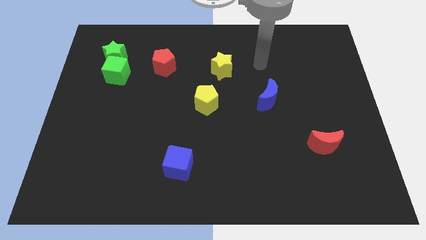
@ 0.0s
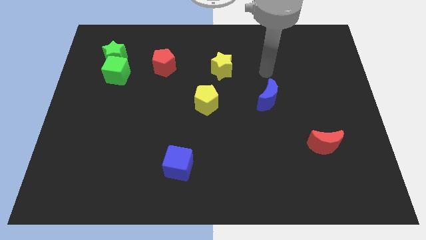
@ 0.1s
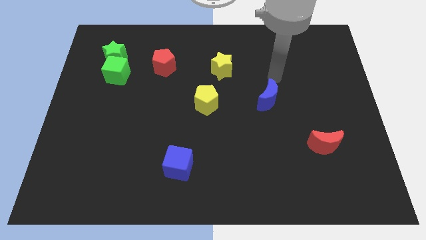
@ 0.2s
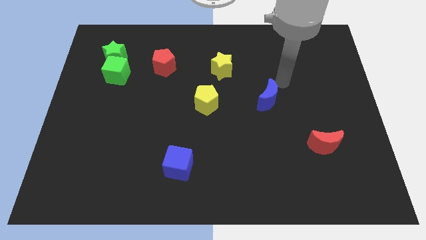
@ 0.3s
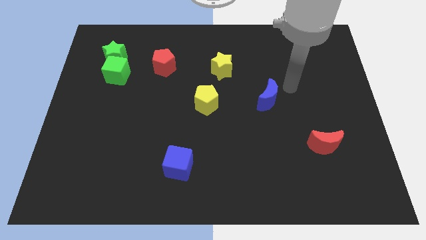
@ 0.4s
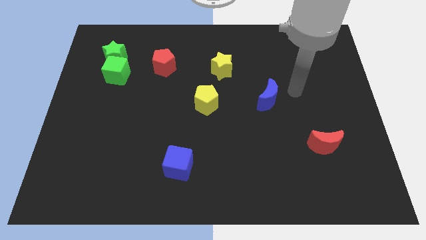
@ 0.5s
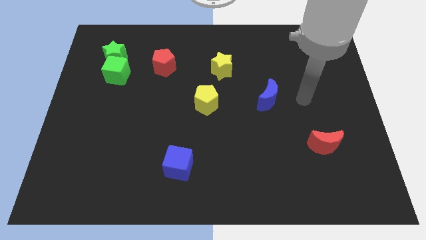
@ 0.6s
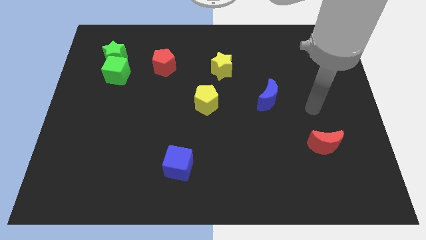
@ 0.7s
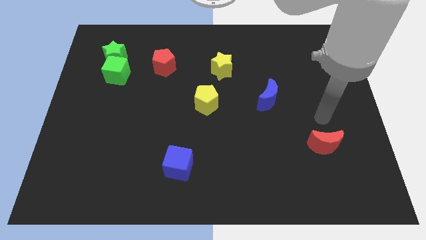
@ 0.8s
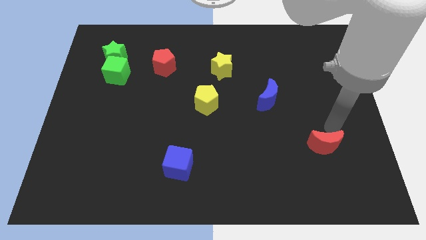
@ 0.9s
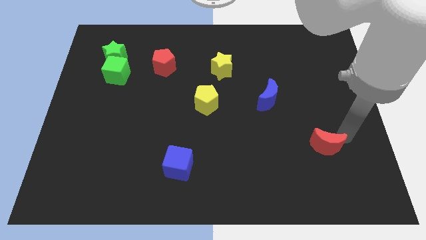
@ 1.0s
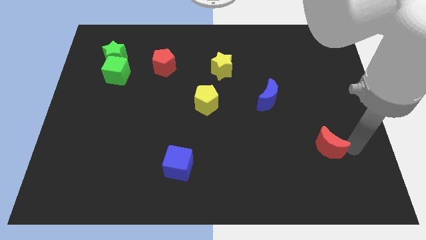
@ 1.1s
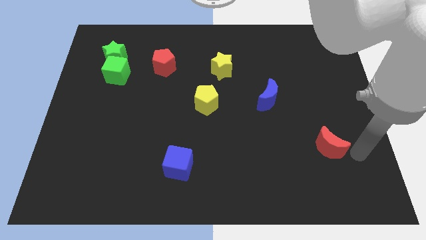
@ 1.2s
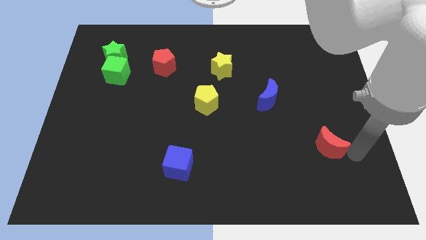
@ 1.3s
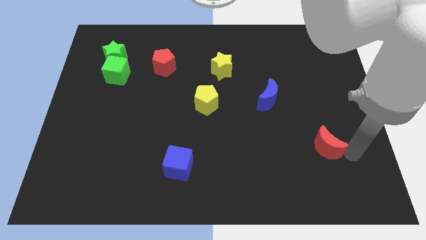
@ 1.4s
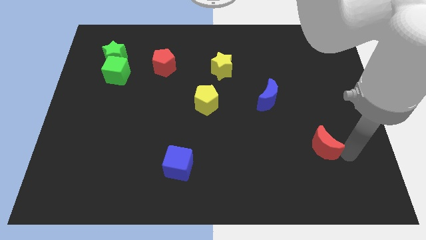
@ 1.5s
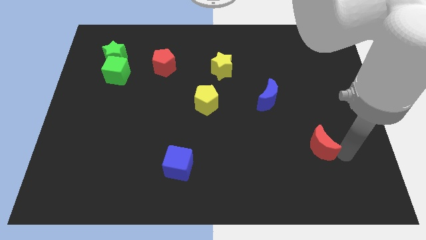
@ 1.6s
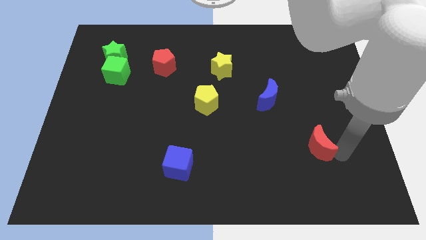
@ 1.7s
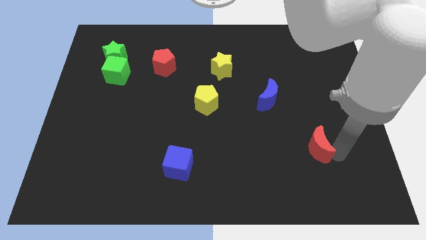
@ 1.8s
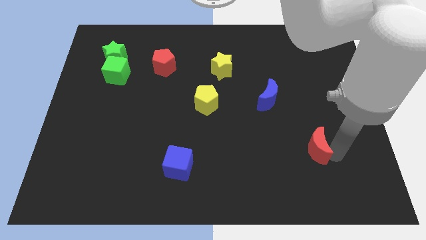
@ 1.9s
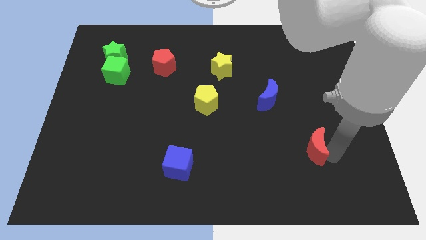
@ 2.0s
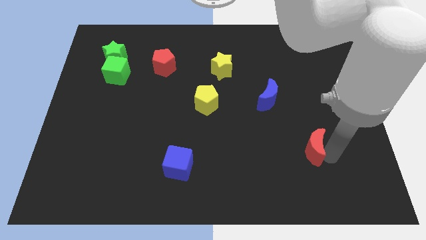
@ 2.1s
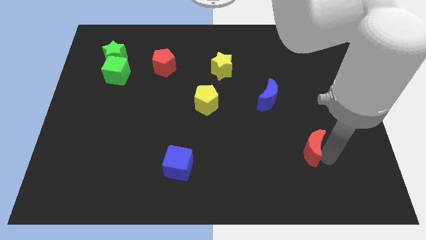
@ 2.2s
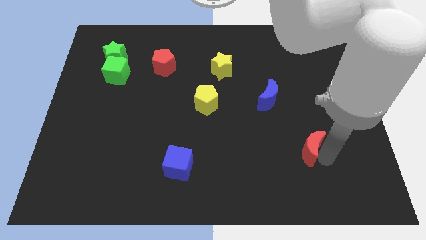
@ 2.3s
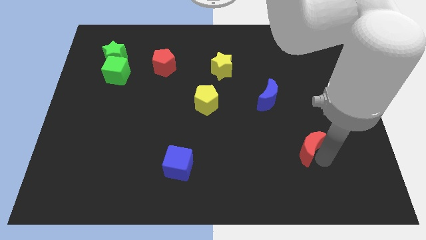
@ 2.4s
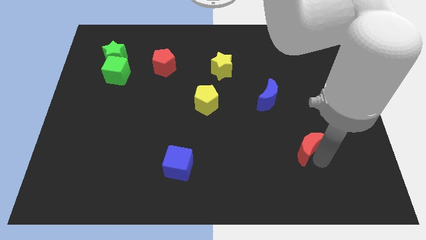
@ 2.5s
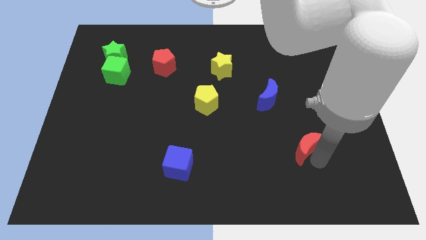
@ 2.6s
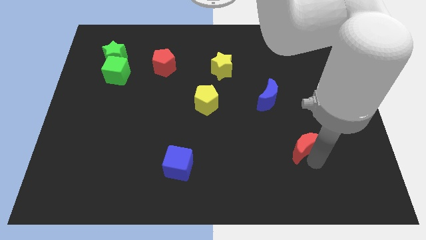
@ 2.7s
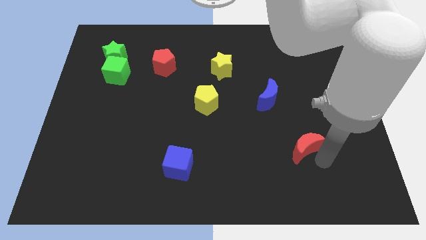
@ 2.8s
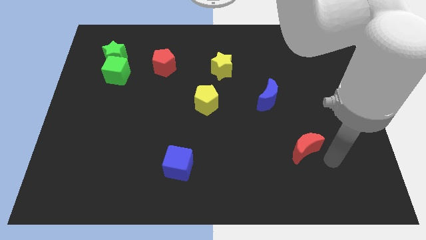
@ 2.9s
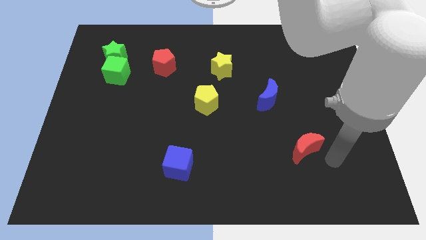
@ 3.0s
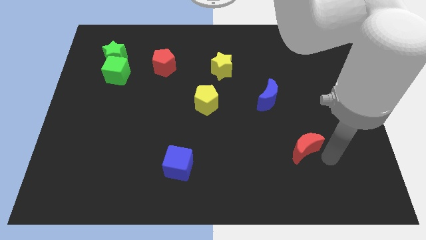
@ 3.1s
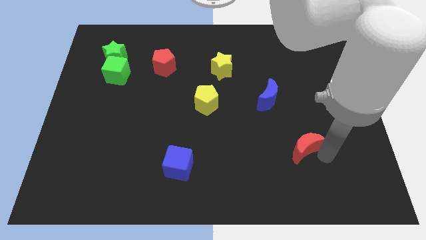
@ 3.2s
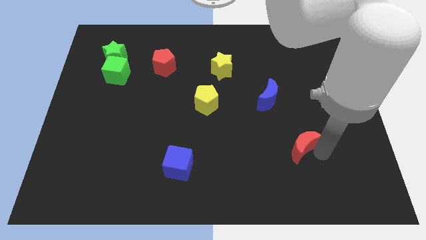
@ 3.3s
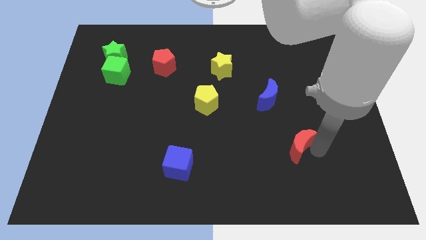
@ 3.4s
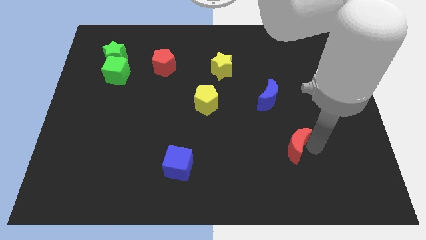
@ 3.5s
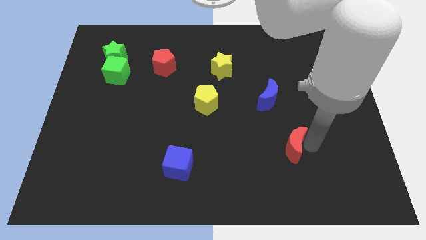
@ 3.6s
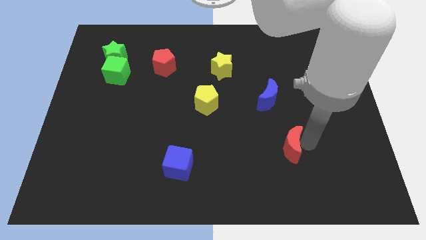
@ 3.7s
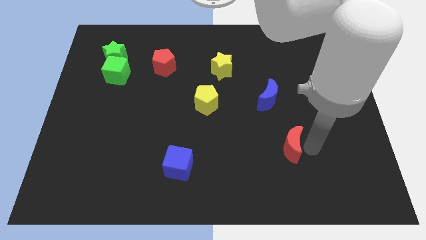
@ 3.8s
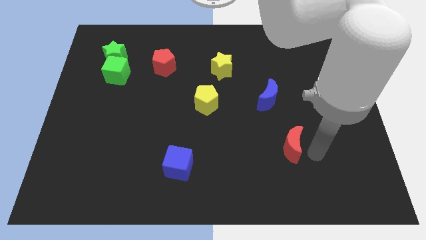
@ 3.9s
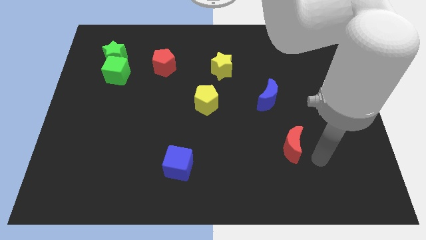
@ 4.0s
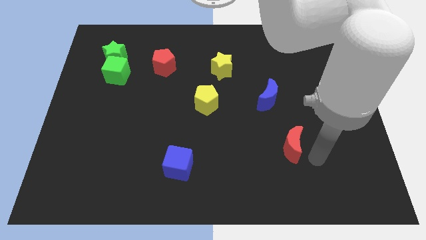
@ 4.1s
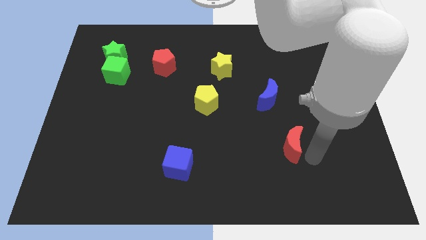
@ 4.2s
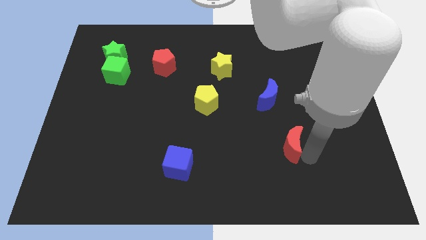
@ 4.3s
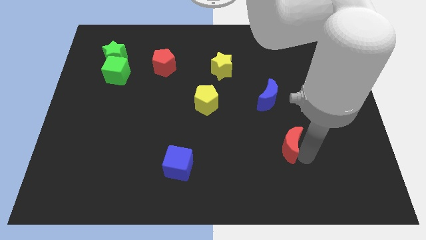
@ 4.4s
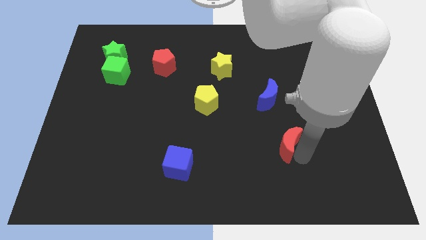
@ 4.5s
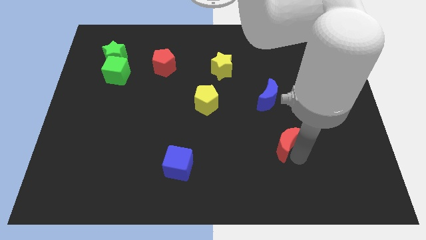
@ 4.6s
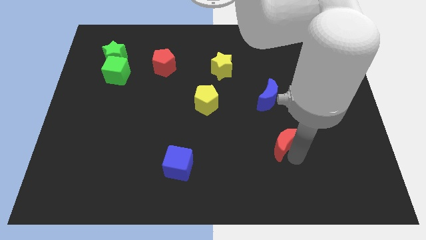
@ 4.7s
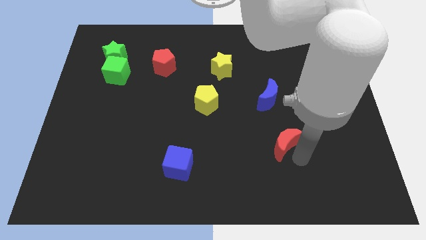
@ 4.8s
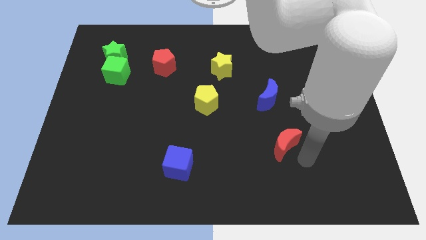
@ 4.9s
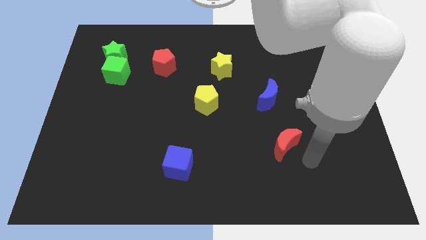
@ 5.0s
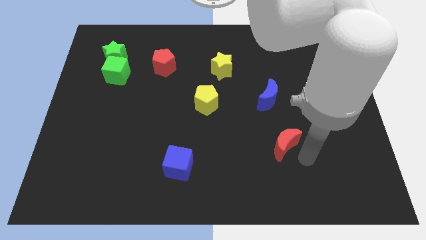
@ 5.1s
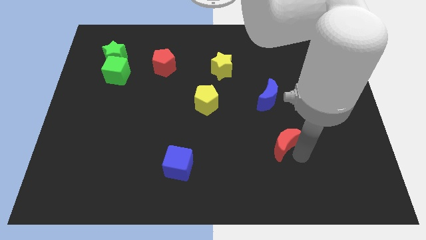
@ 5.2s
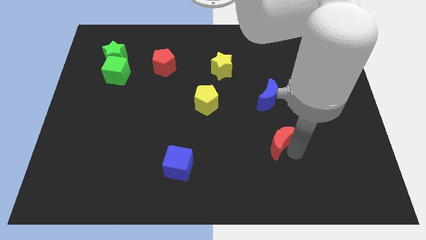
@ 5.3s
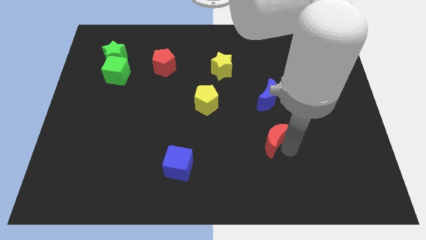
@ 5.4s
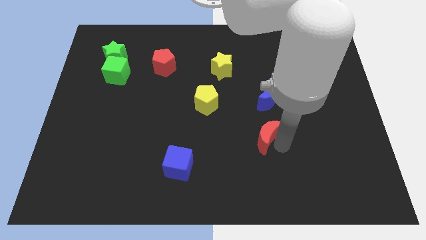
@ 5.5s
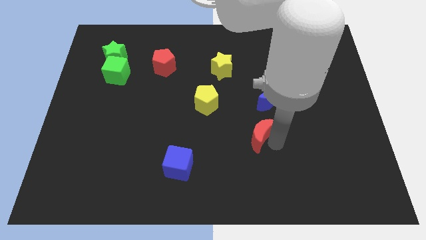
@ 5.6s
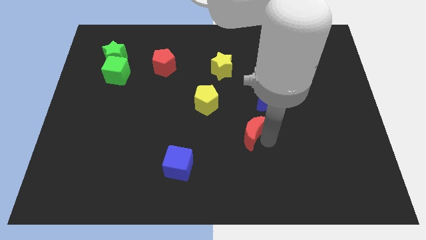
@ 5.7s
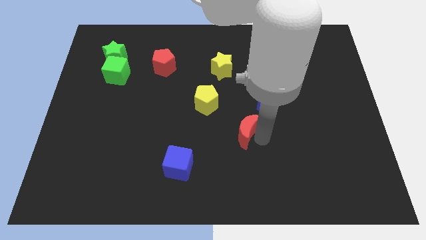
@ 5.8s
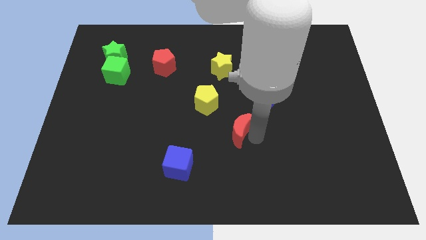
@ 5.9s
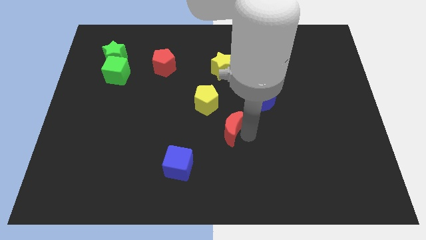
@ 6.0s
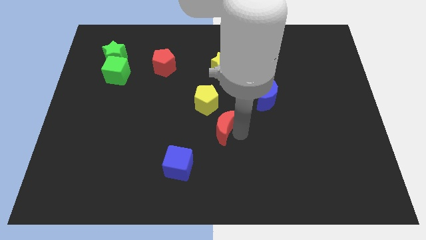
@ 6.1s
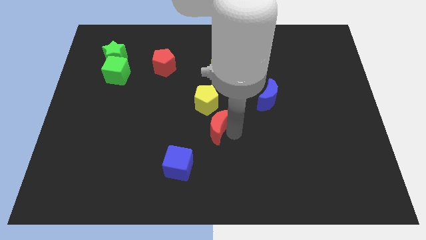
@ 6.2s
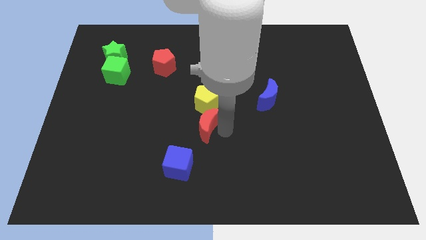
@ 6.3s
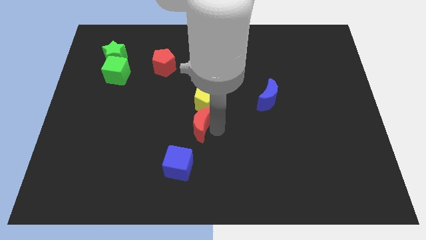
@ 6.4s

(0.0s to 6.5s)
move the red moon diagonally down and to the left of the yellow pentagon
